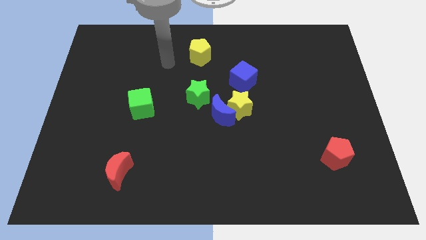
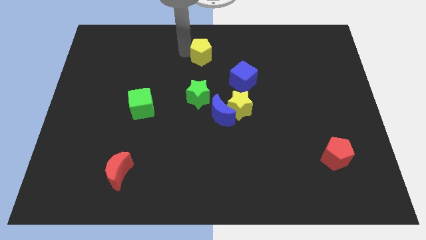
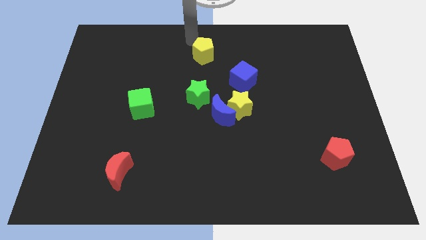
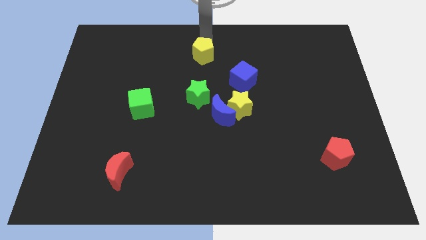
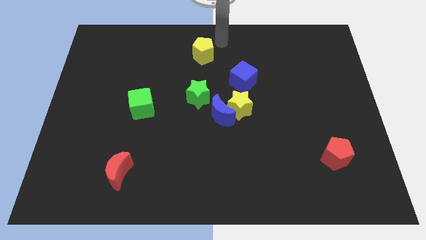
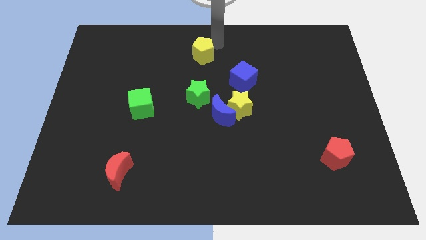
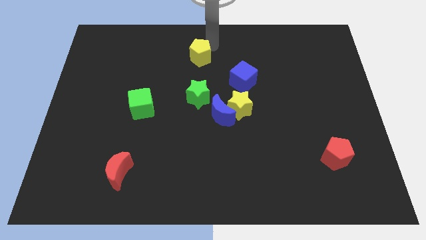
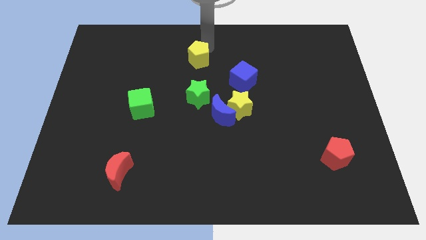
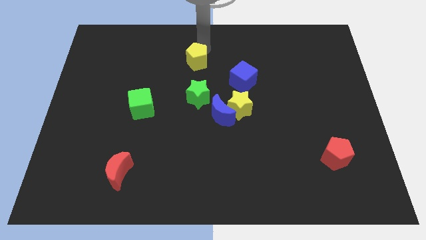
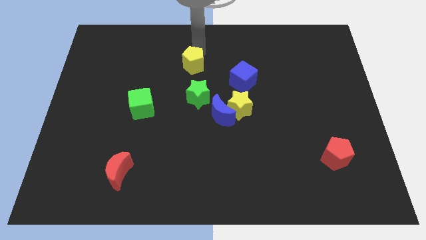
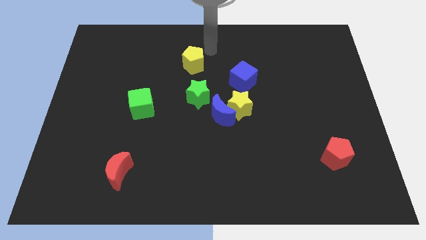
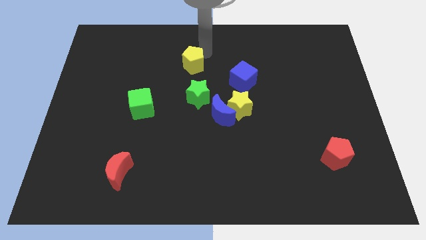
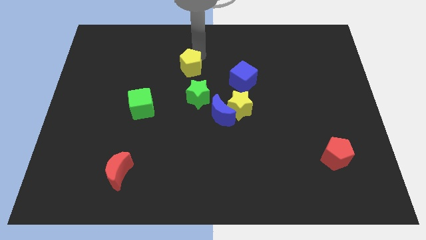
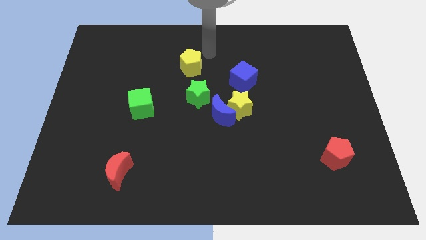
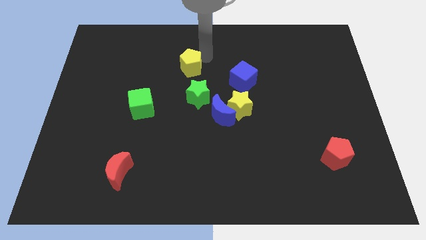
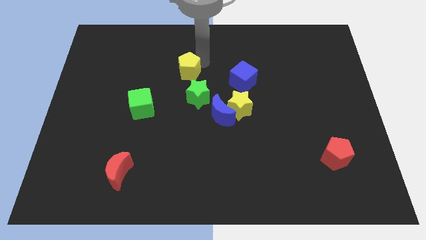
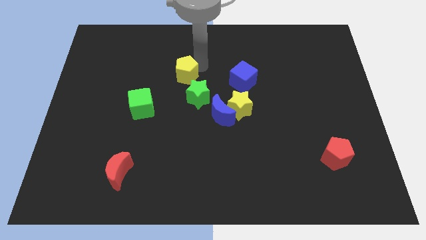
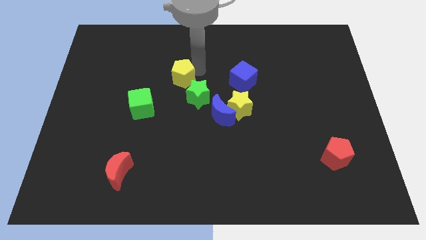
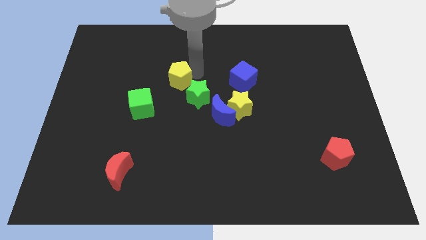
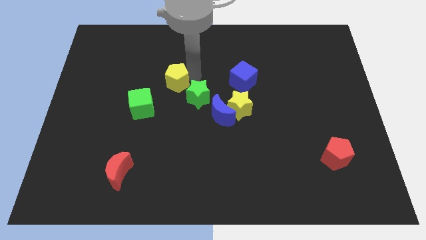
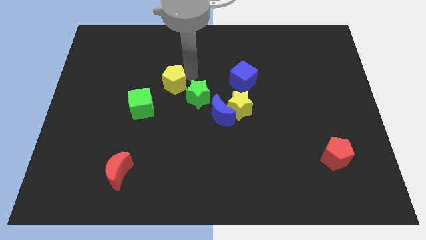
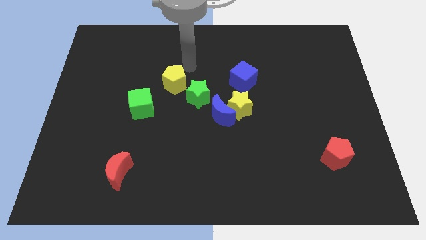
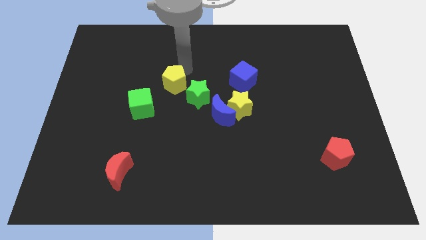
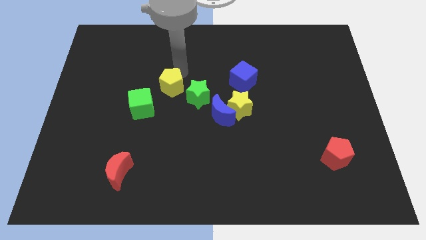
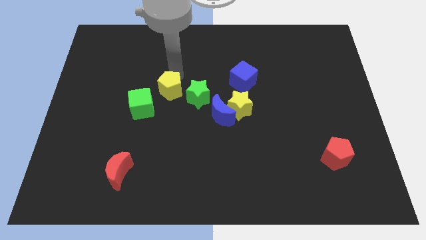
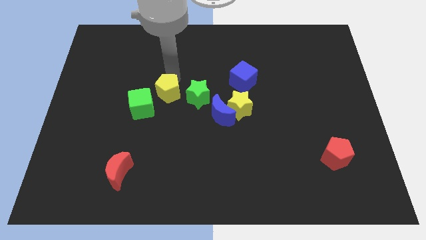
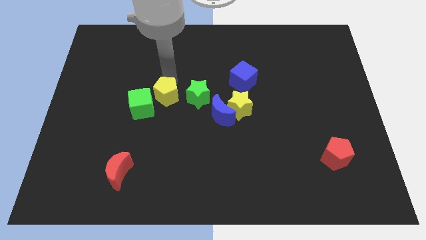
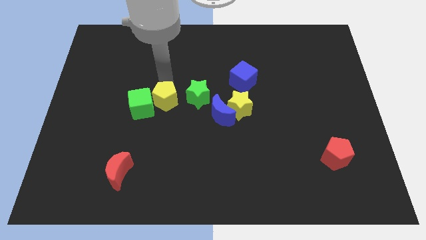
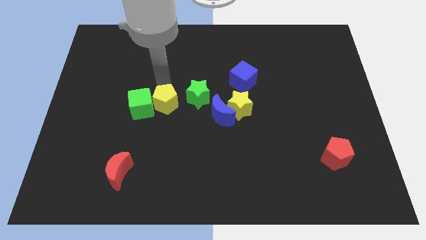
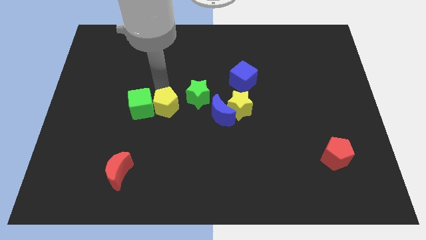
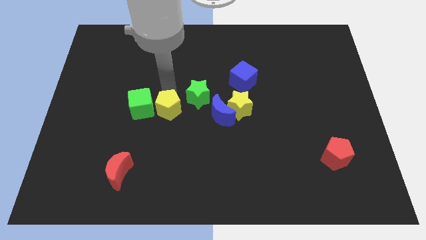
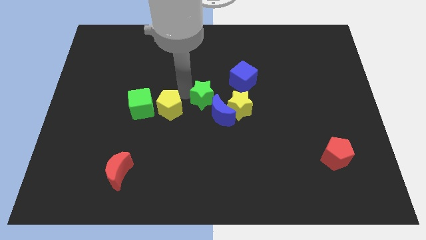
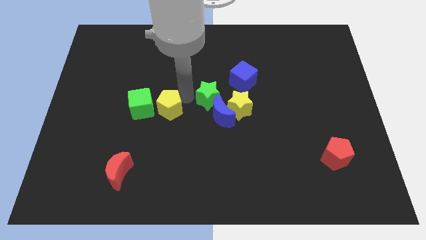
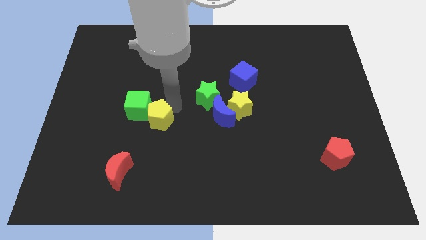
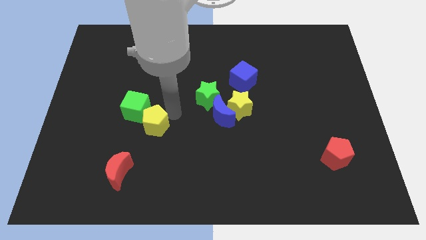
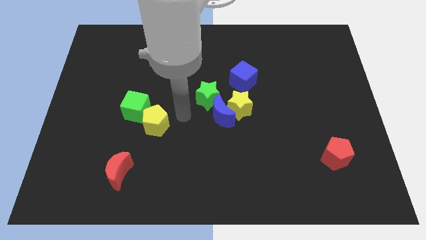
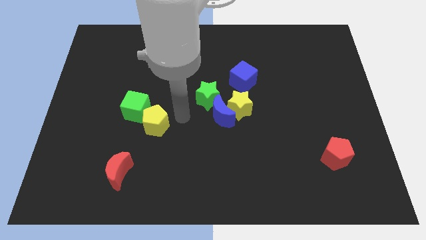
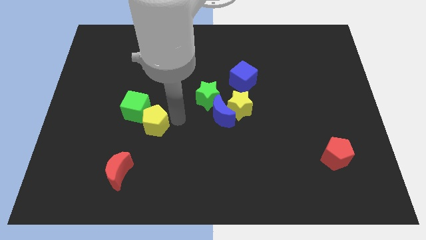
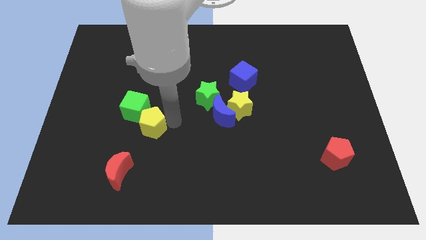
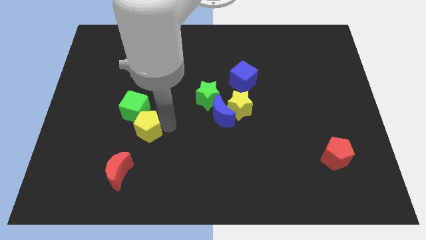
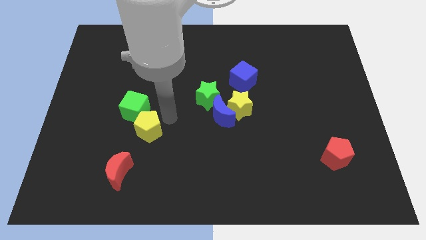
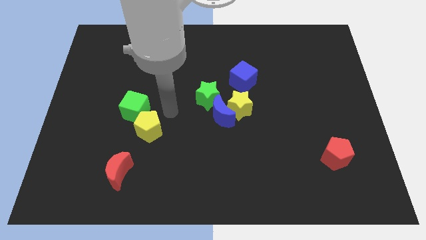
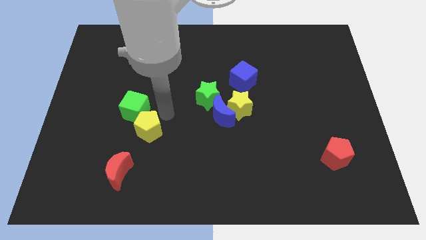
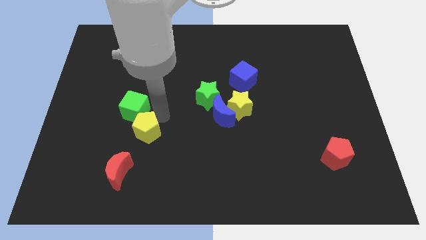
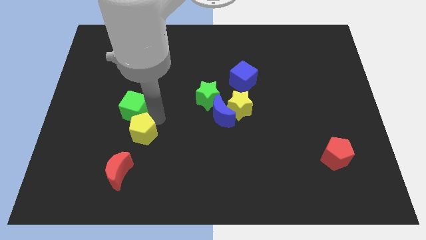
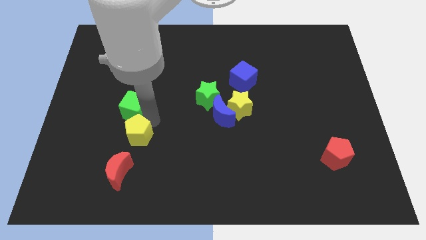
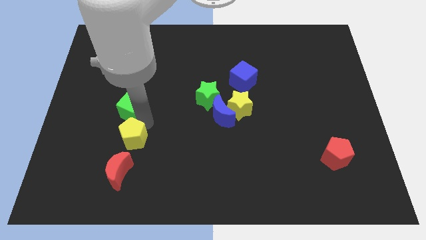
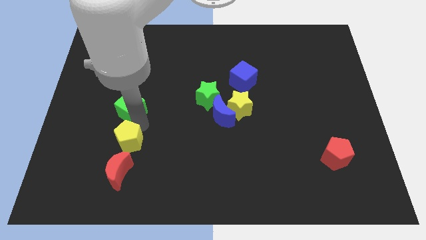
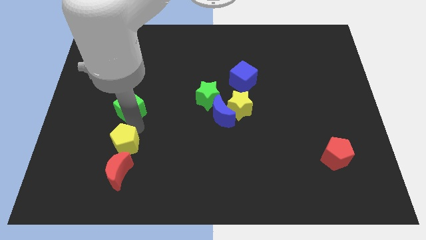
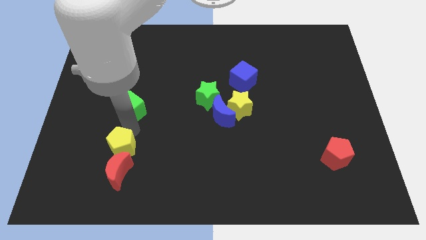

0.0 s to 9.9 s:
put the yellow pentagon to the red moon

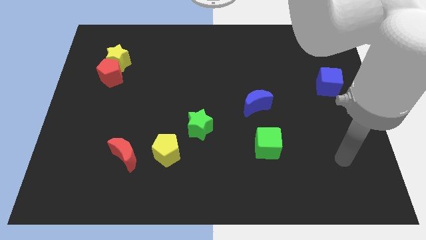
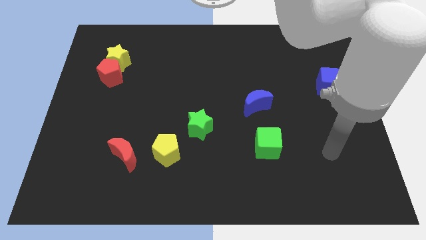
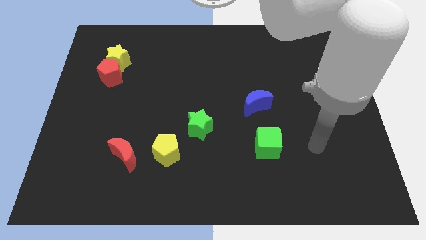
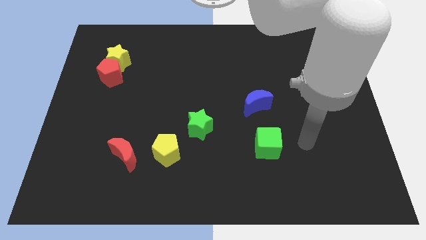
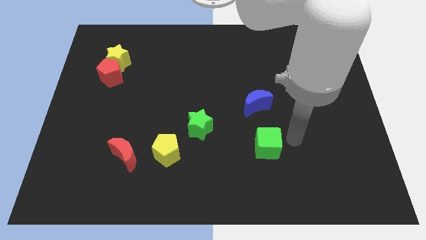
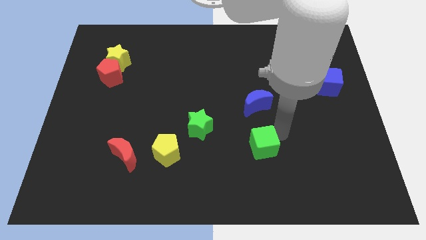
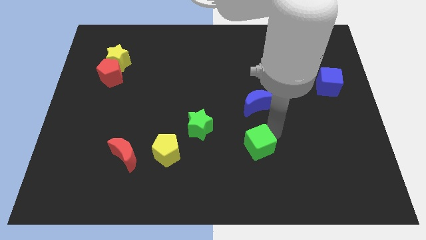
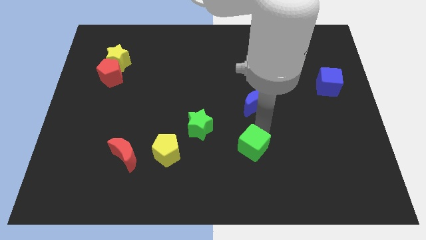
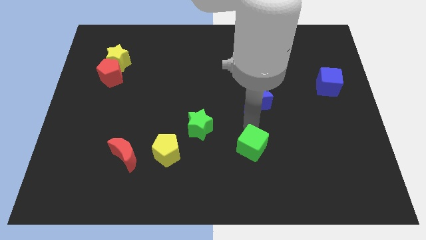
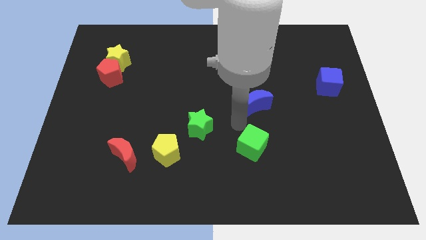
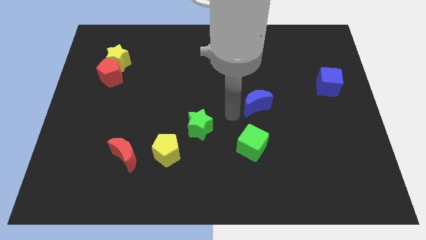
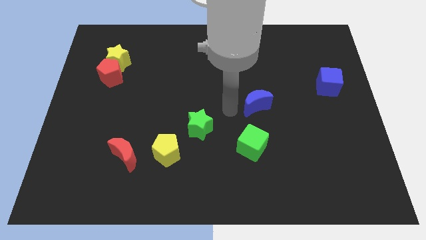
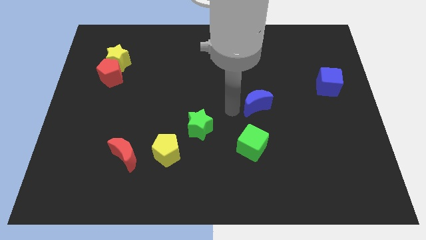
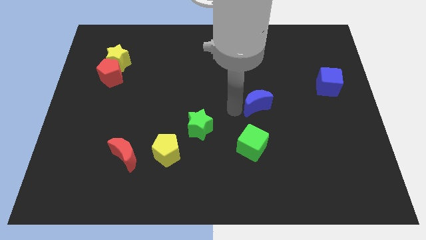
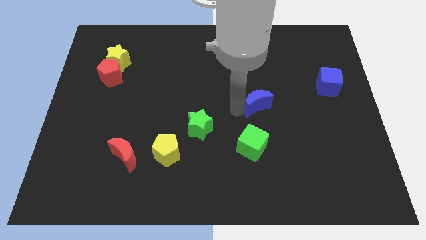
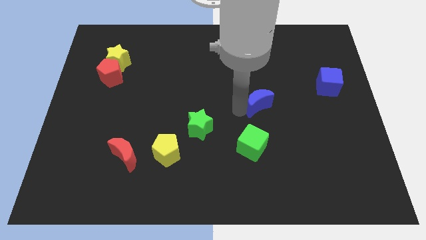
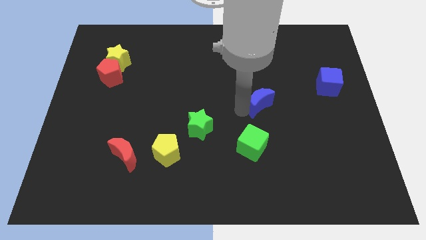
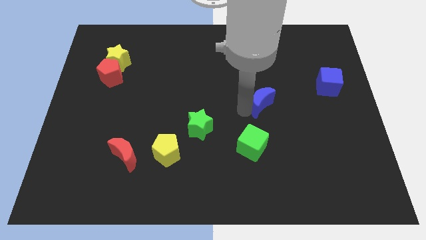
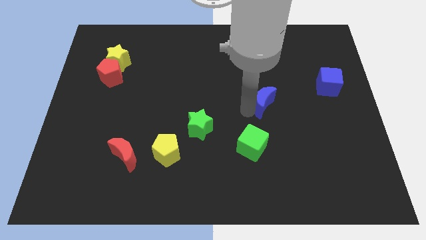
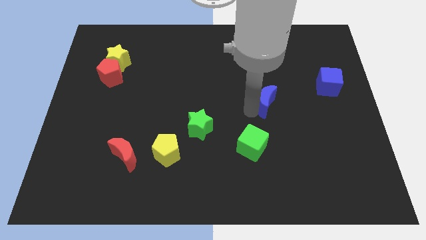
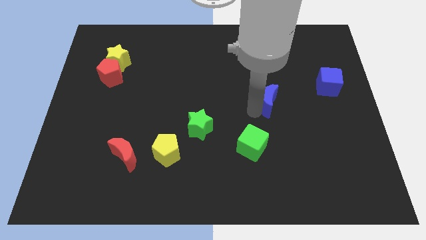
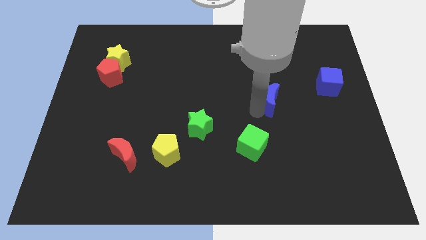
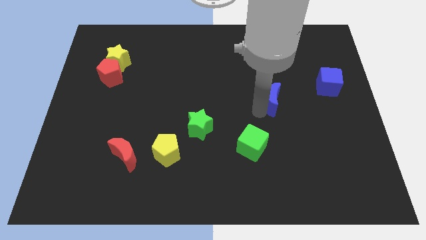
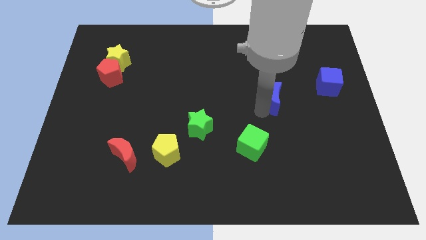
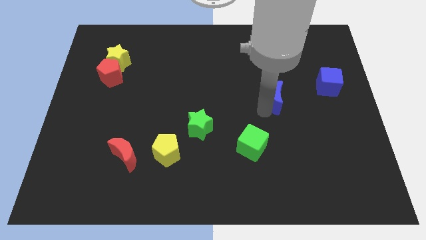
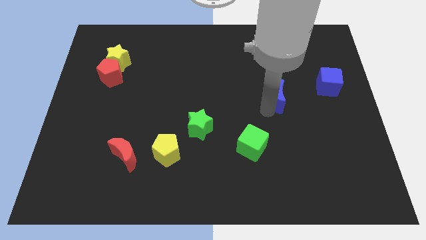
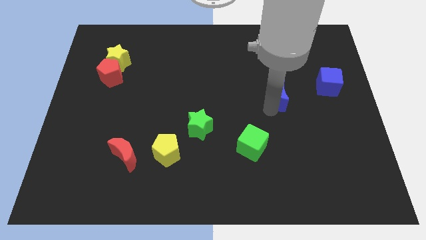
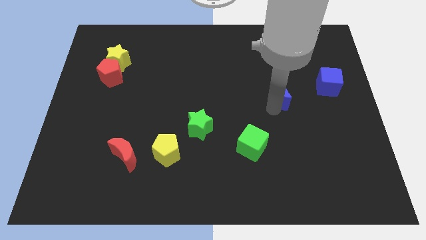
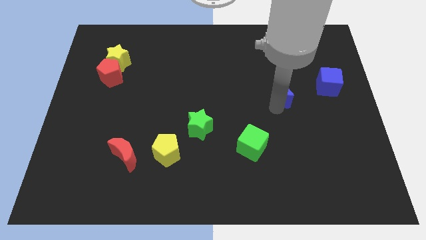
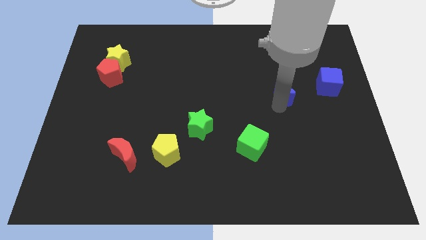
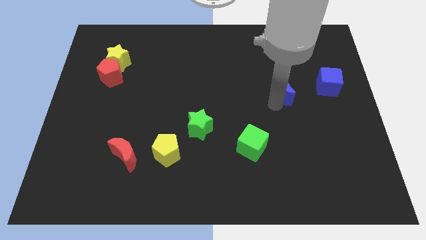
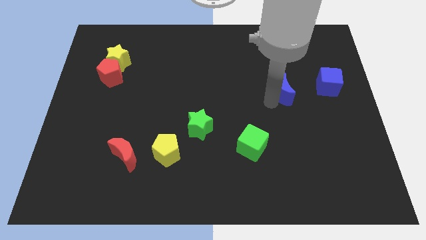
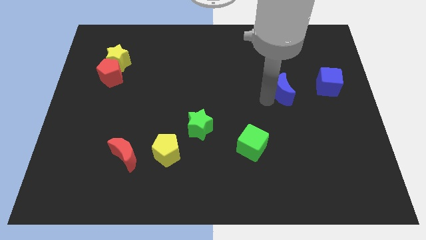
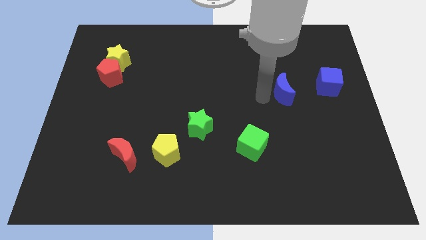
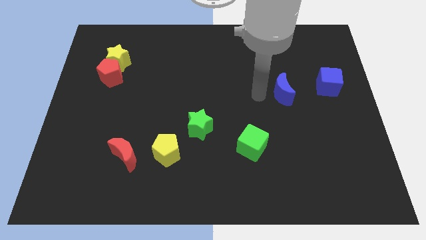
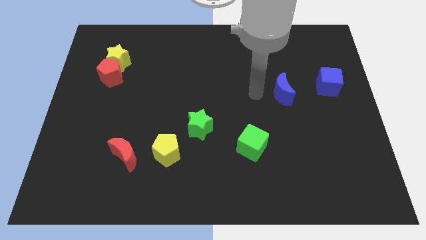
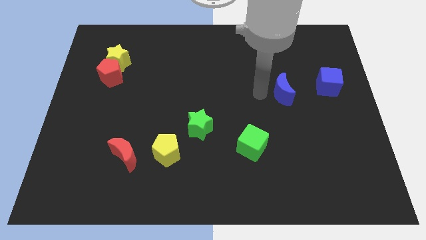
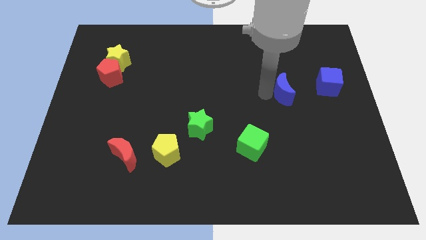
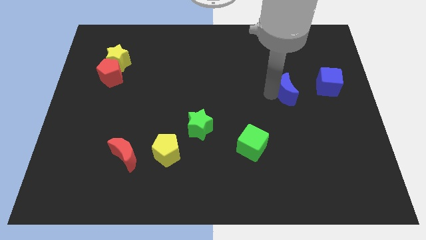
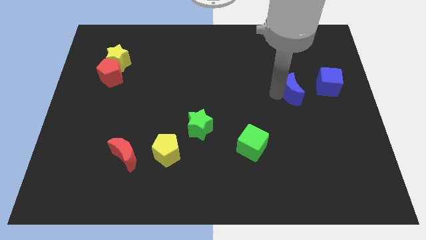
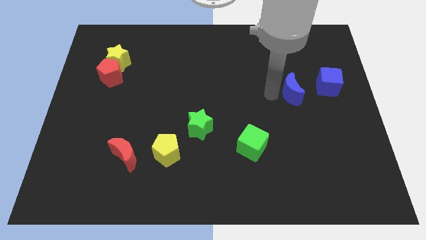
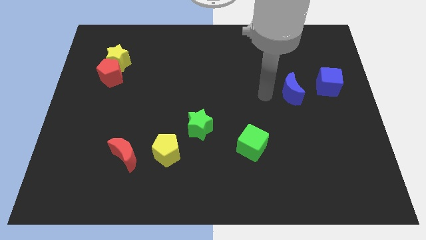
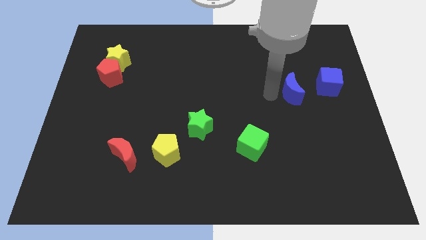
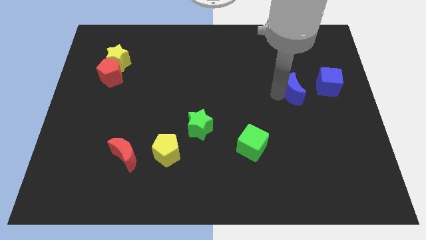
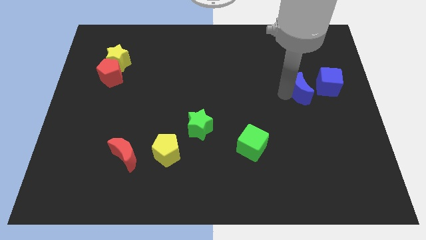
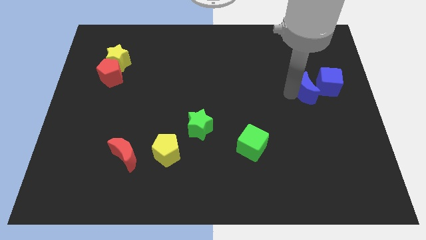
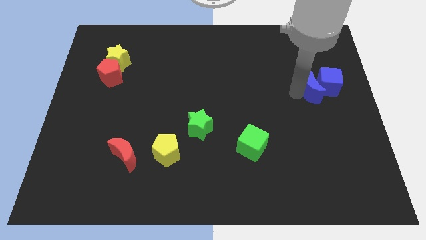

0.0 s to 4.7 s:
move the blue moon close to the blue cube
